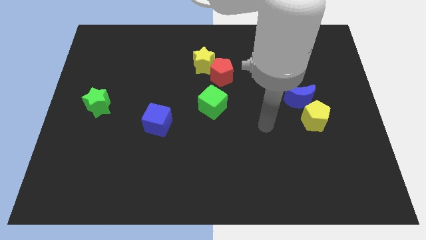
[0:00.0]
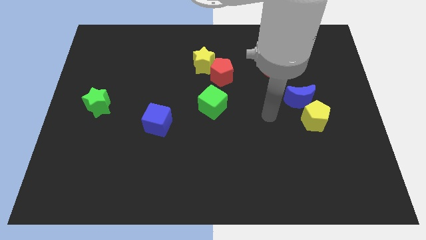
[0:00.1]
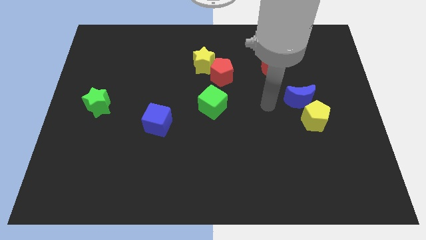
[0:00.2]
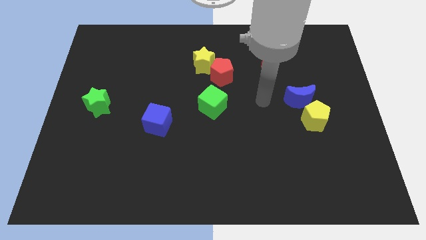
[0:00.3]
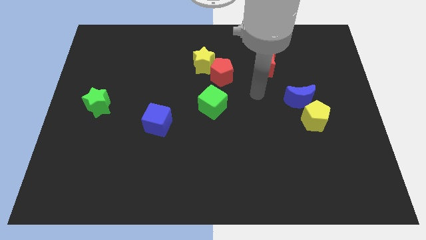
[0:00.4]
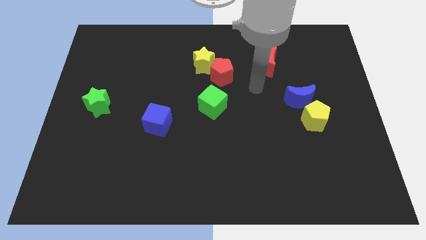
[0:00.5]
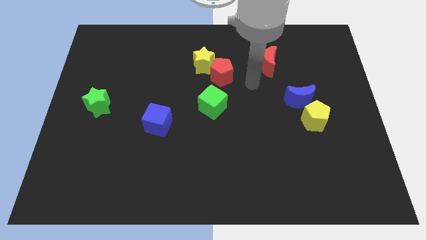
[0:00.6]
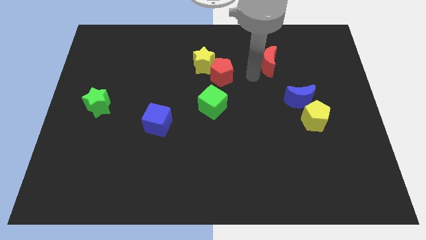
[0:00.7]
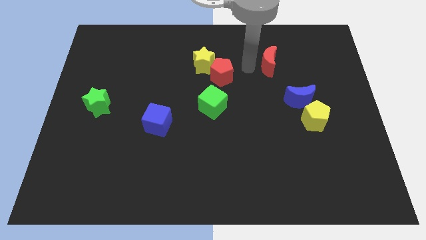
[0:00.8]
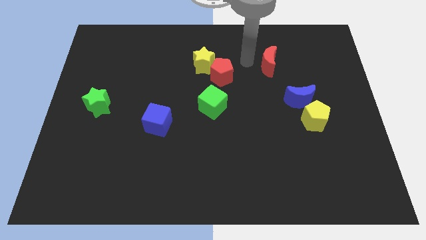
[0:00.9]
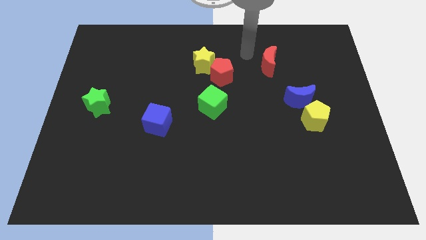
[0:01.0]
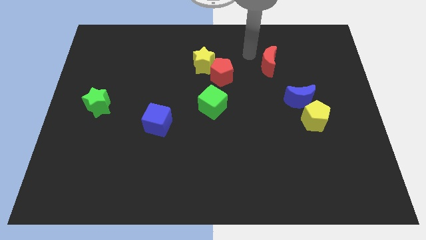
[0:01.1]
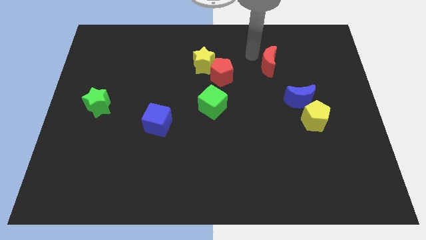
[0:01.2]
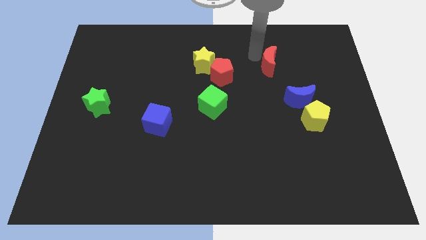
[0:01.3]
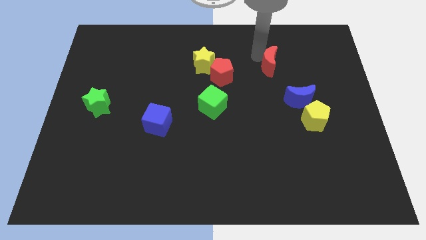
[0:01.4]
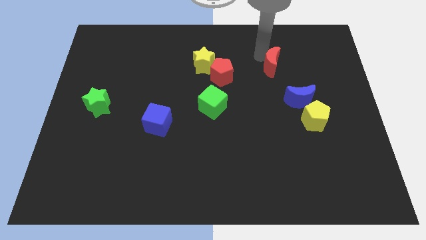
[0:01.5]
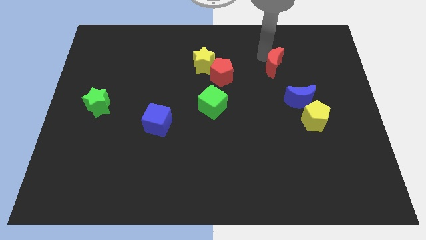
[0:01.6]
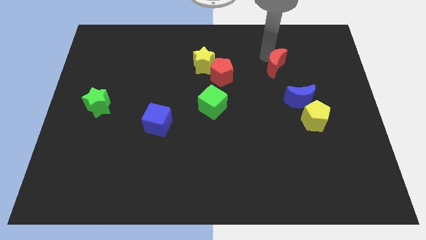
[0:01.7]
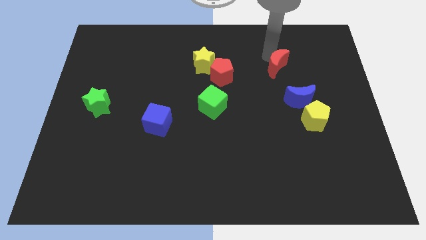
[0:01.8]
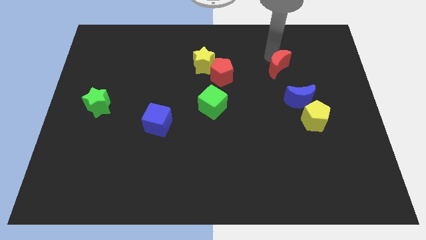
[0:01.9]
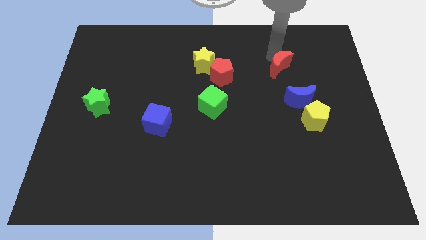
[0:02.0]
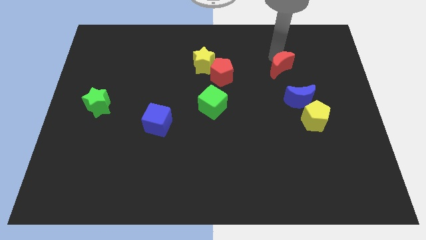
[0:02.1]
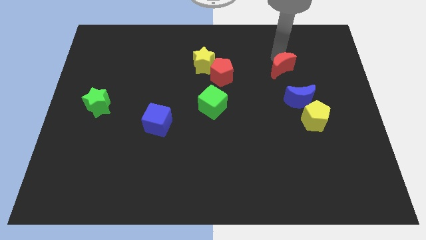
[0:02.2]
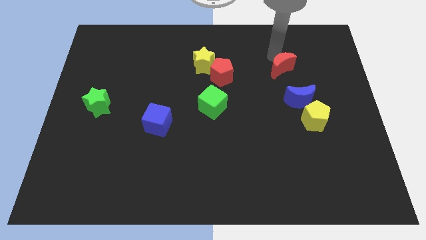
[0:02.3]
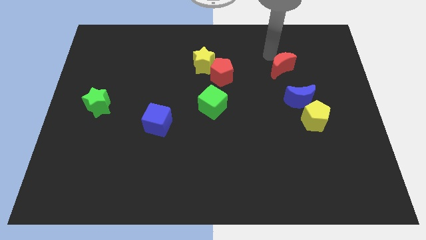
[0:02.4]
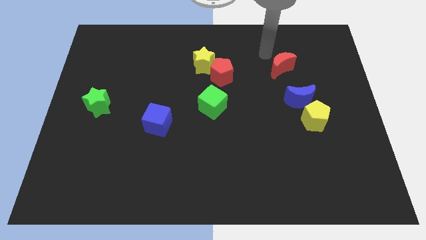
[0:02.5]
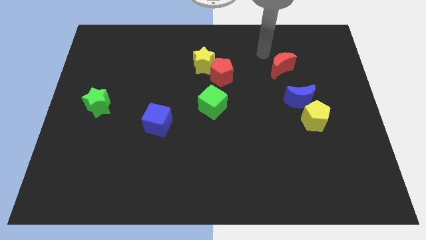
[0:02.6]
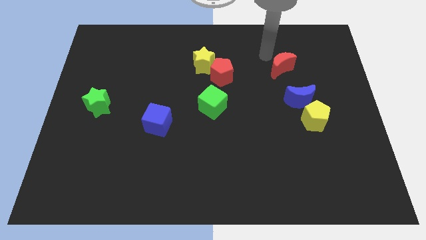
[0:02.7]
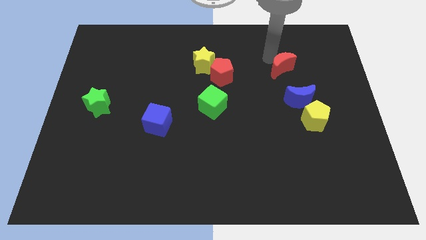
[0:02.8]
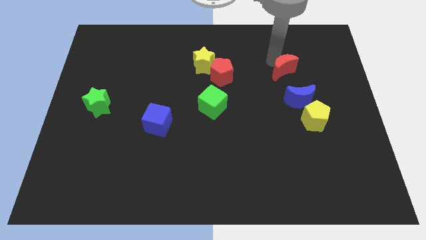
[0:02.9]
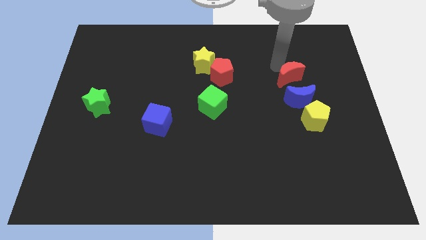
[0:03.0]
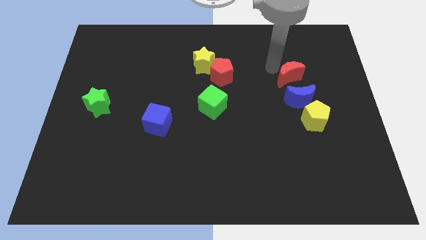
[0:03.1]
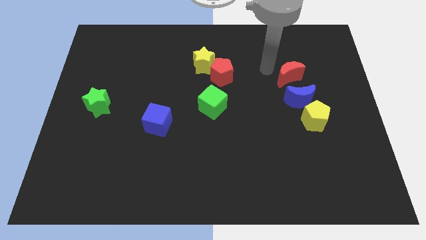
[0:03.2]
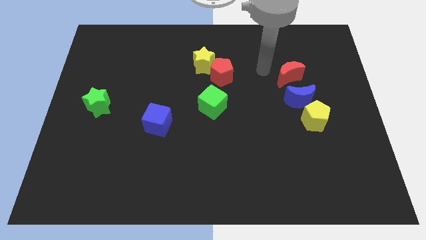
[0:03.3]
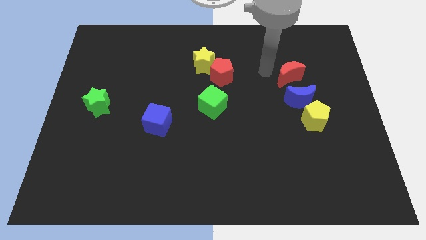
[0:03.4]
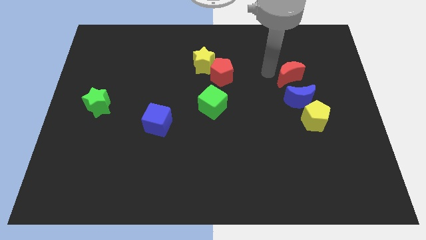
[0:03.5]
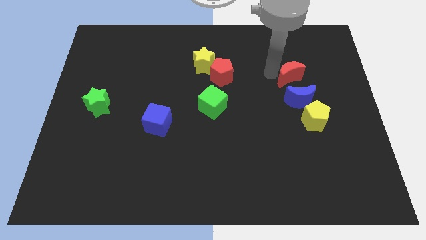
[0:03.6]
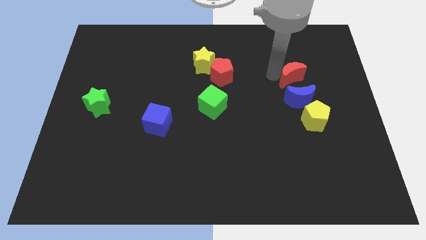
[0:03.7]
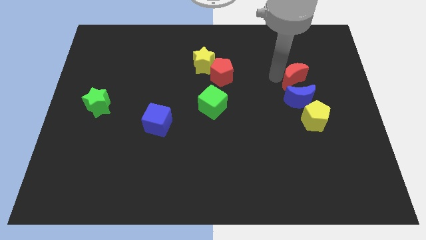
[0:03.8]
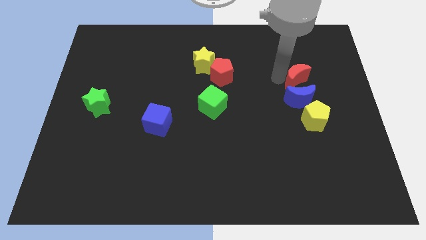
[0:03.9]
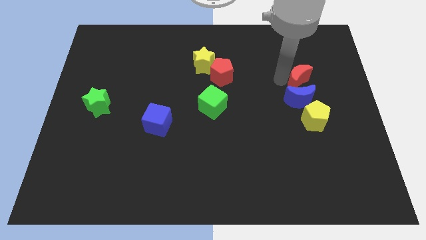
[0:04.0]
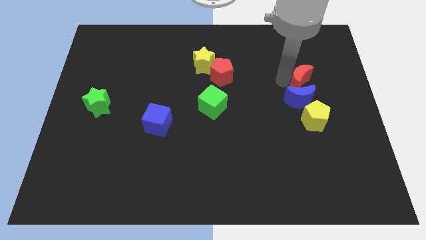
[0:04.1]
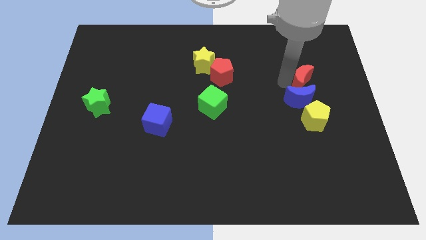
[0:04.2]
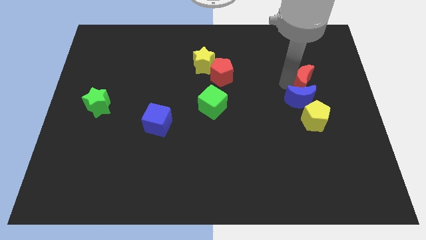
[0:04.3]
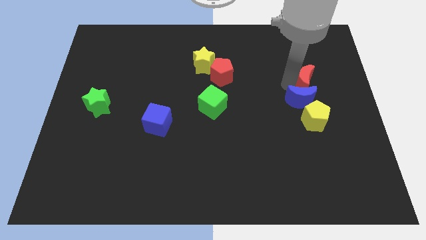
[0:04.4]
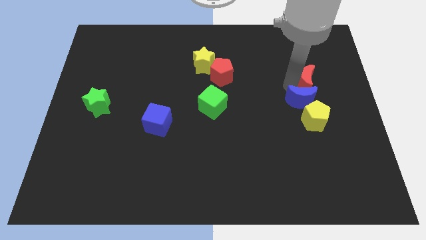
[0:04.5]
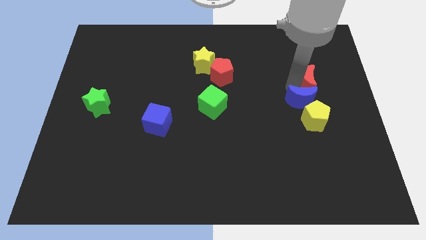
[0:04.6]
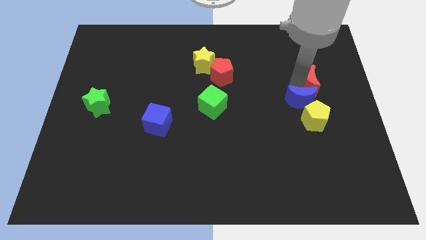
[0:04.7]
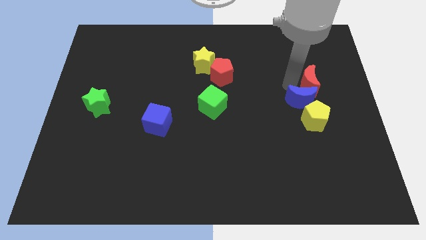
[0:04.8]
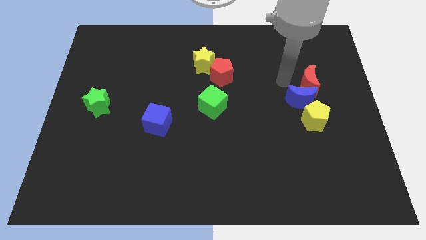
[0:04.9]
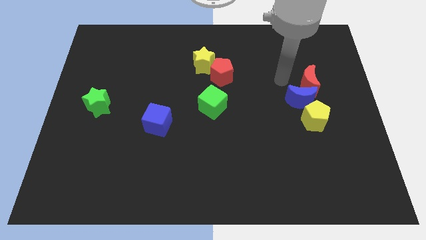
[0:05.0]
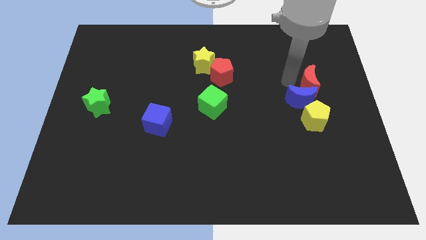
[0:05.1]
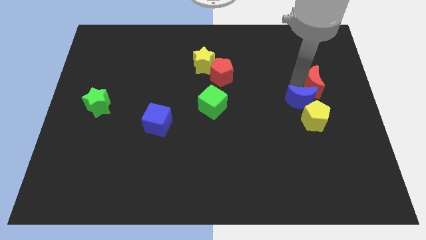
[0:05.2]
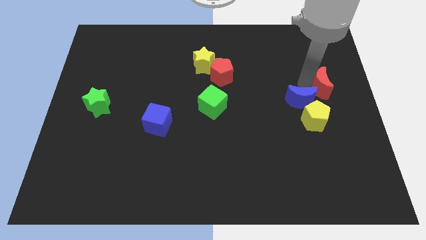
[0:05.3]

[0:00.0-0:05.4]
move the red moon to the right side

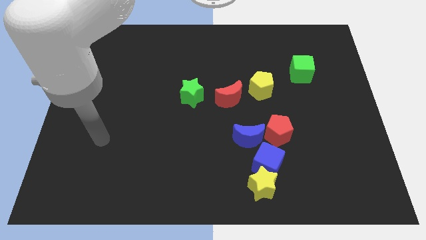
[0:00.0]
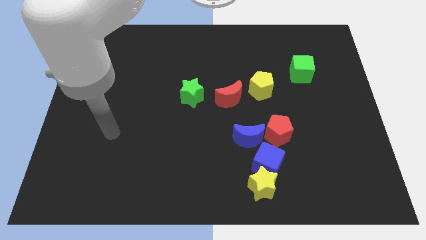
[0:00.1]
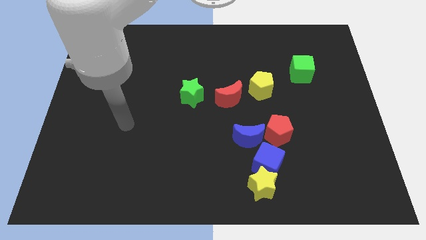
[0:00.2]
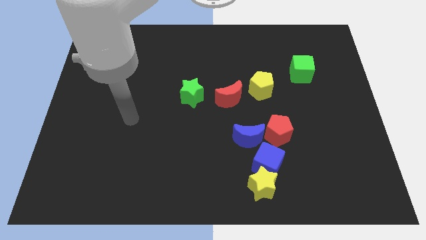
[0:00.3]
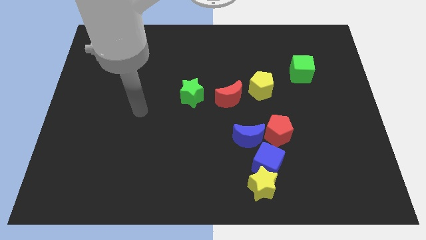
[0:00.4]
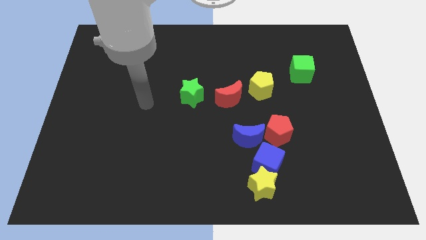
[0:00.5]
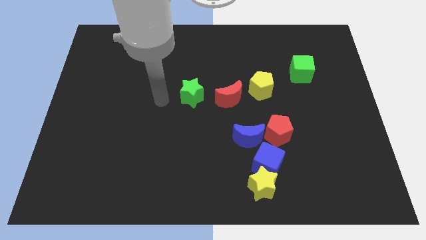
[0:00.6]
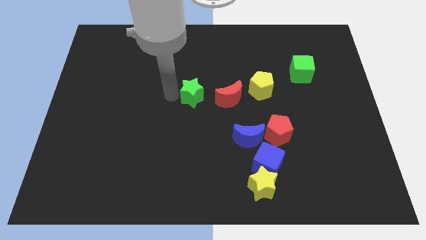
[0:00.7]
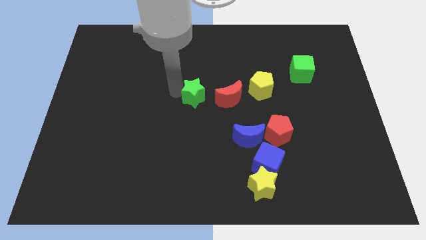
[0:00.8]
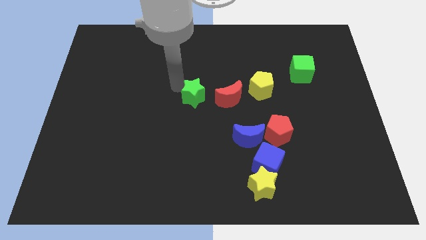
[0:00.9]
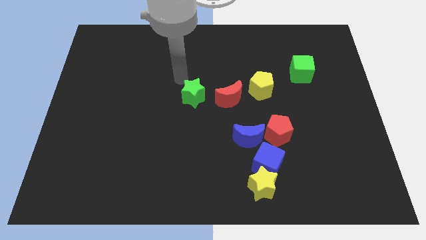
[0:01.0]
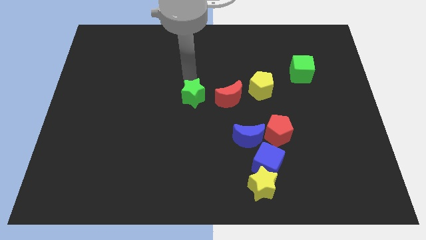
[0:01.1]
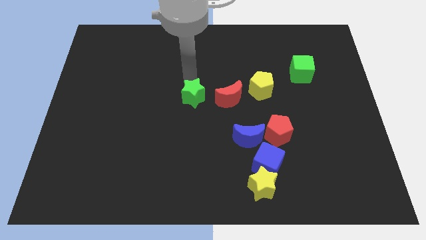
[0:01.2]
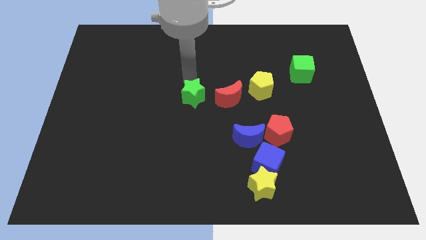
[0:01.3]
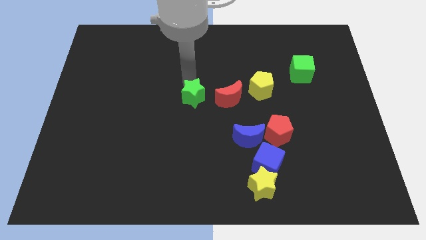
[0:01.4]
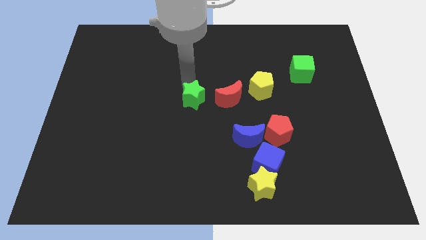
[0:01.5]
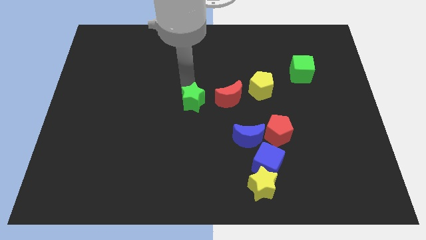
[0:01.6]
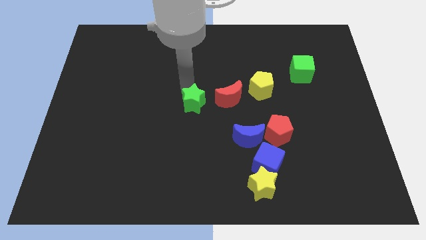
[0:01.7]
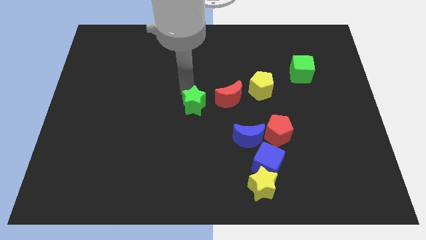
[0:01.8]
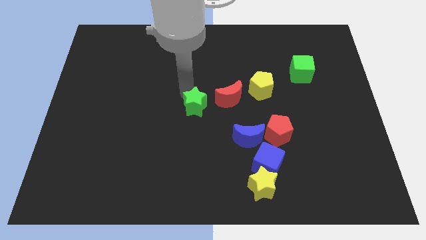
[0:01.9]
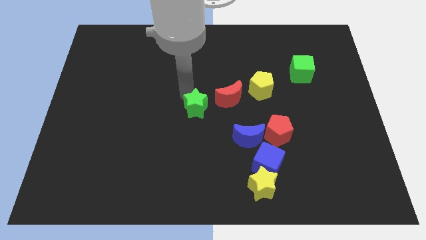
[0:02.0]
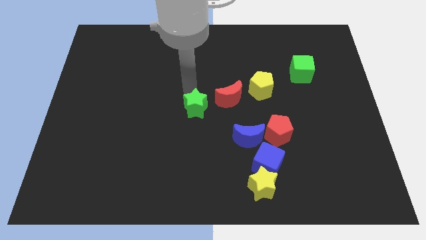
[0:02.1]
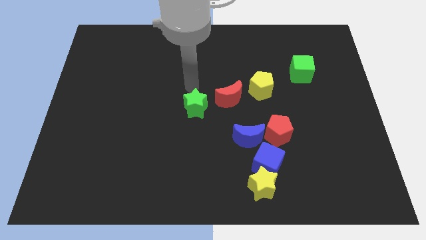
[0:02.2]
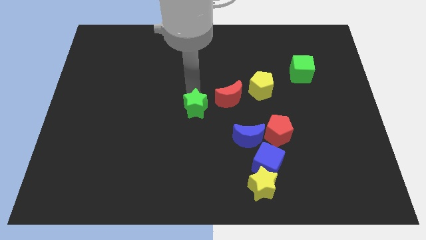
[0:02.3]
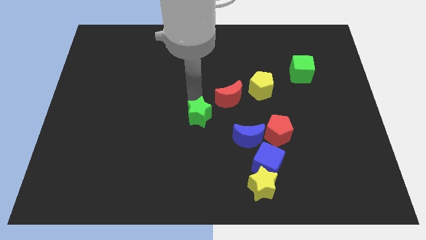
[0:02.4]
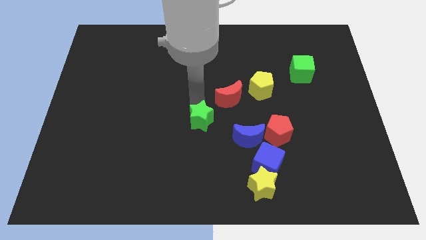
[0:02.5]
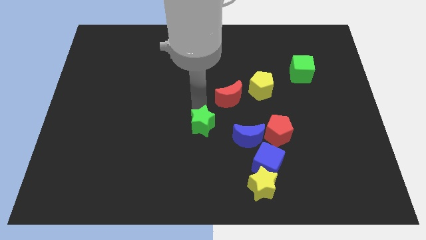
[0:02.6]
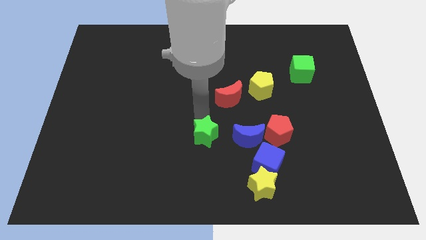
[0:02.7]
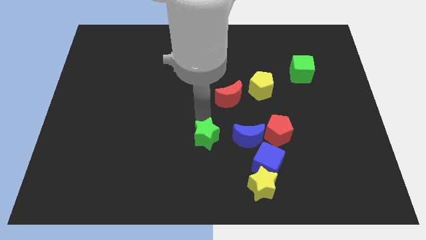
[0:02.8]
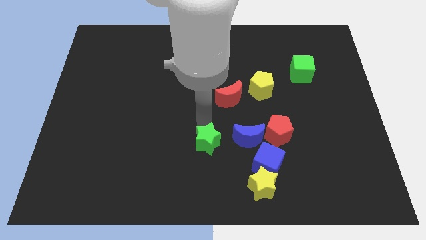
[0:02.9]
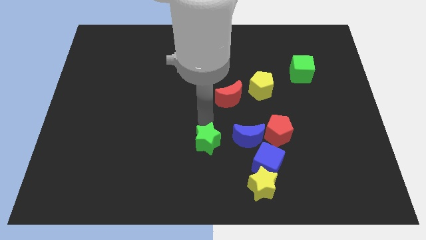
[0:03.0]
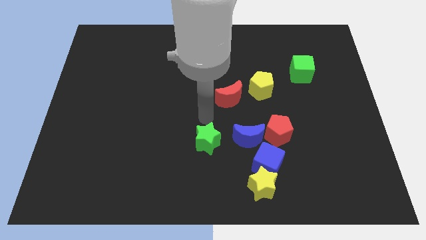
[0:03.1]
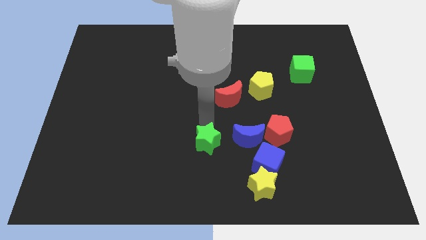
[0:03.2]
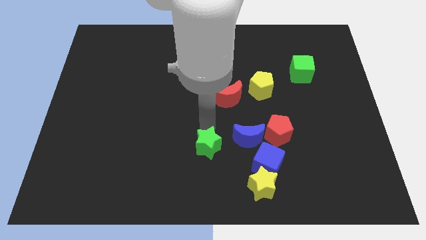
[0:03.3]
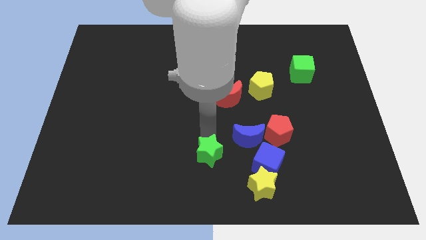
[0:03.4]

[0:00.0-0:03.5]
put the green star to the bottom side
